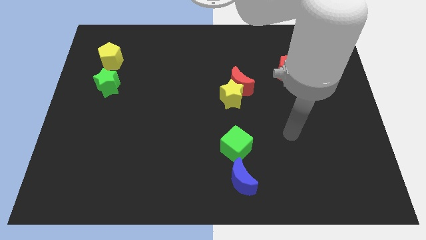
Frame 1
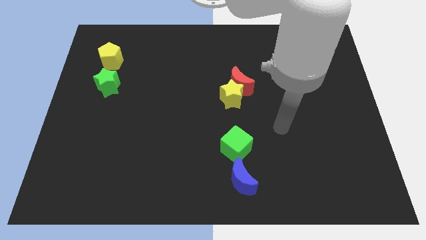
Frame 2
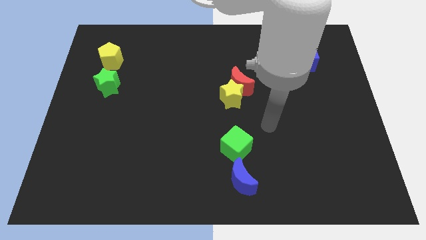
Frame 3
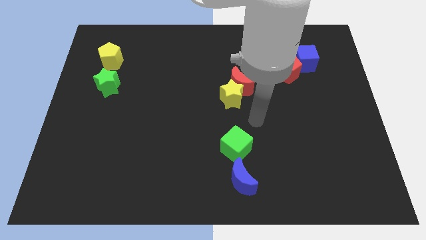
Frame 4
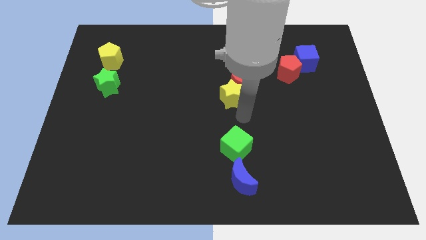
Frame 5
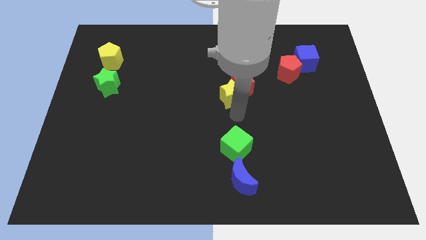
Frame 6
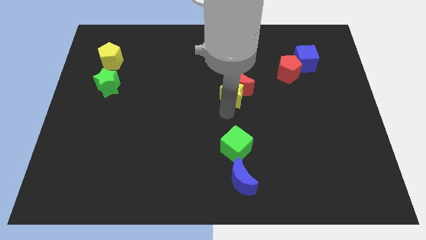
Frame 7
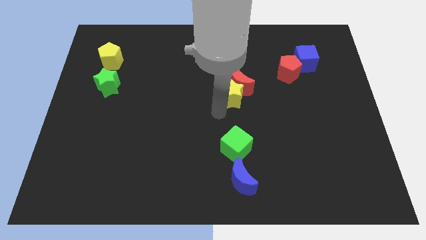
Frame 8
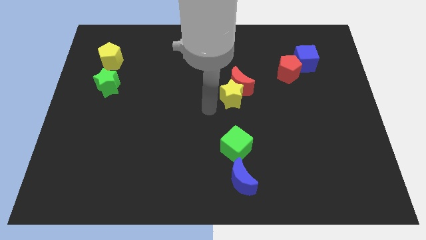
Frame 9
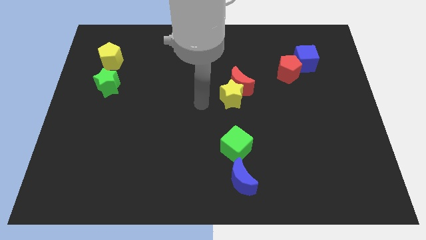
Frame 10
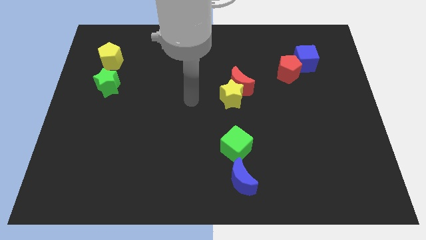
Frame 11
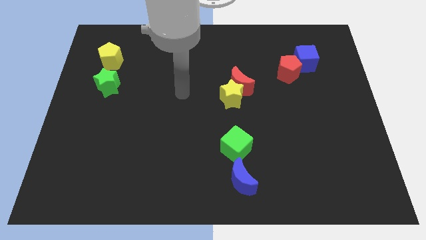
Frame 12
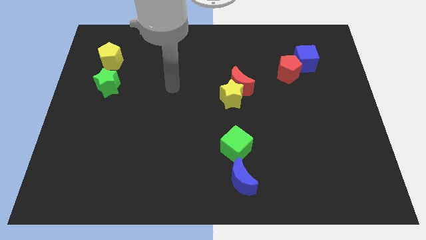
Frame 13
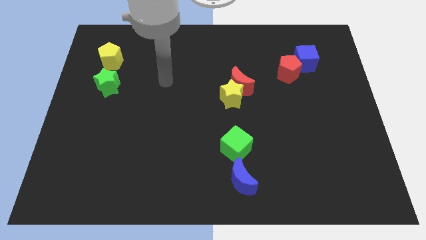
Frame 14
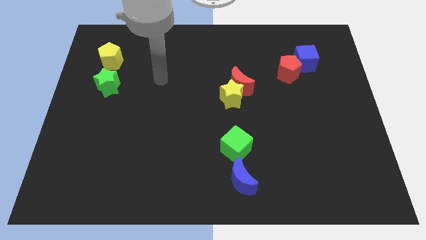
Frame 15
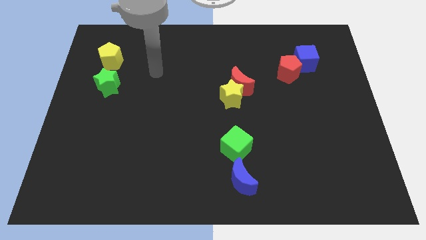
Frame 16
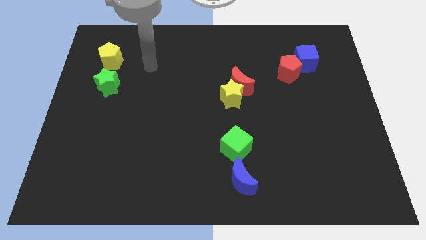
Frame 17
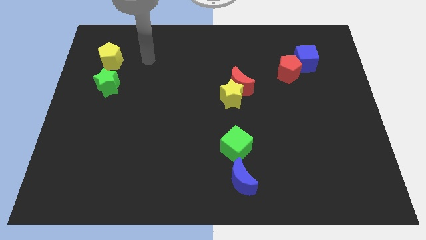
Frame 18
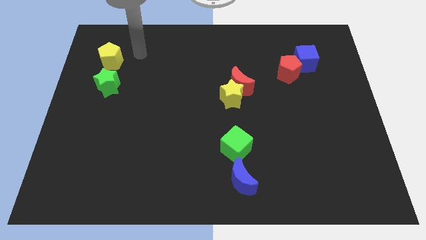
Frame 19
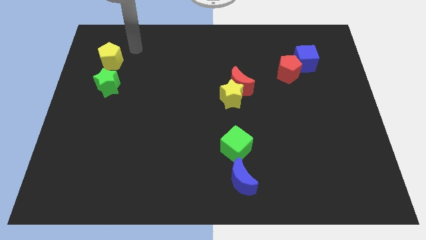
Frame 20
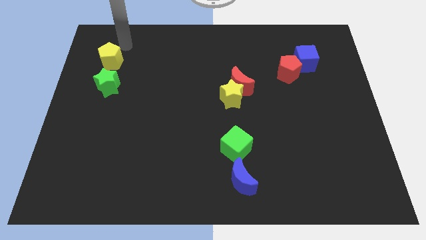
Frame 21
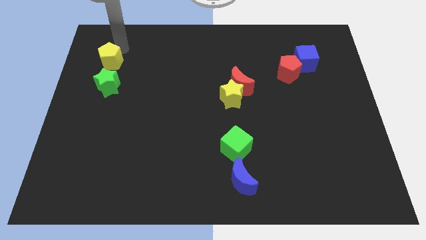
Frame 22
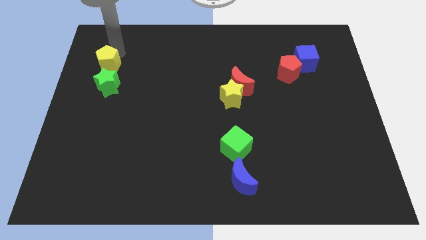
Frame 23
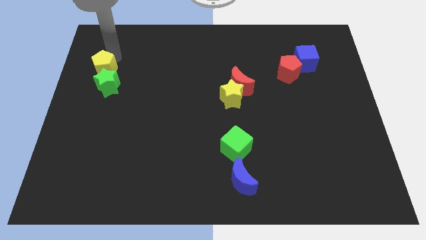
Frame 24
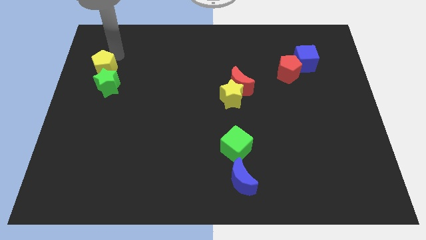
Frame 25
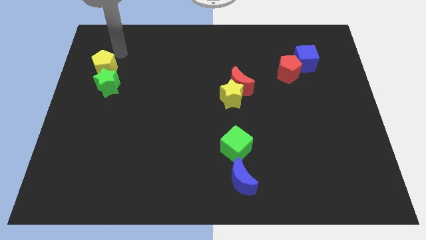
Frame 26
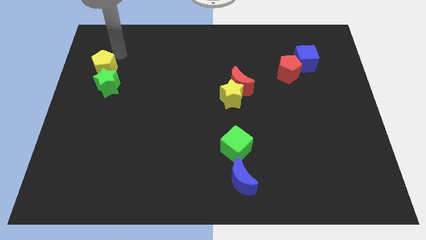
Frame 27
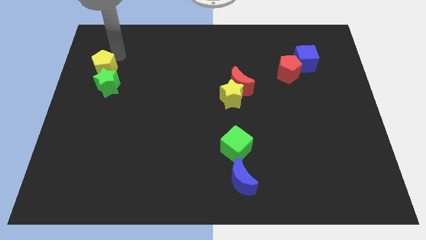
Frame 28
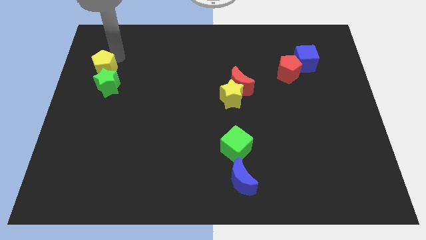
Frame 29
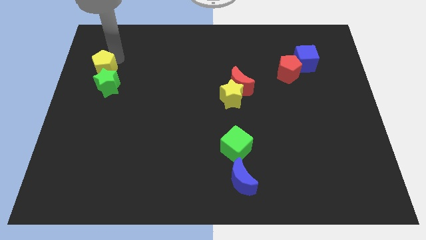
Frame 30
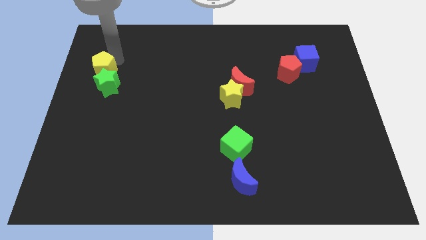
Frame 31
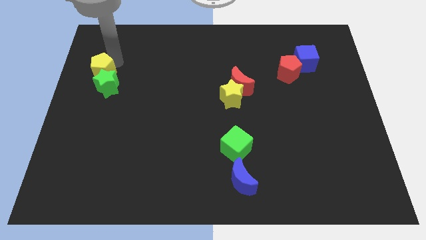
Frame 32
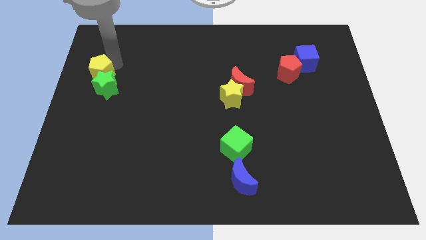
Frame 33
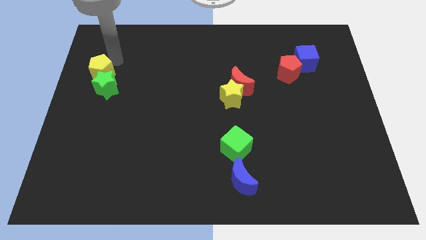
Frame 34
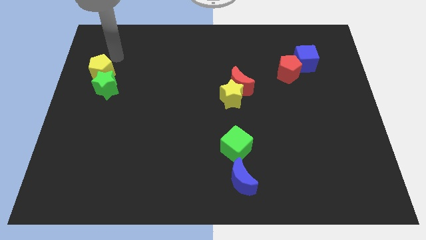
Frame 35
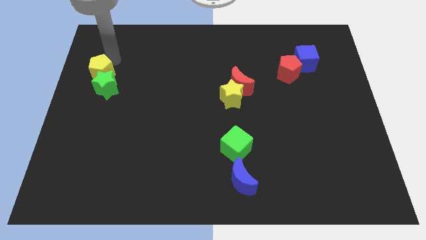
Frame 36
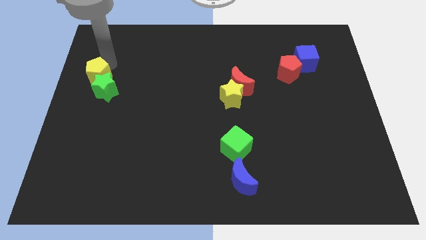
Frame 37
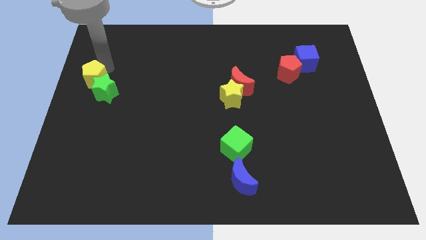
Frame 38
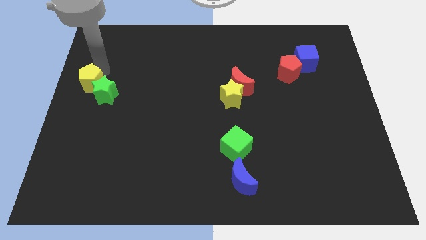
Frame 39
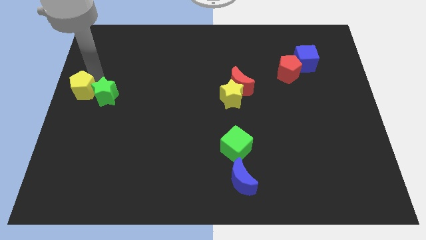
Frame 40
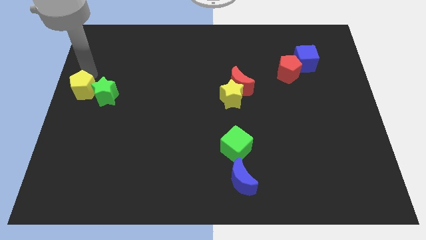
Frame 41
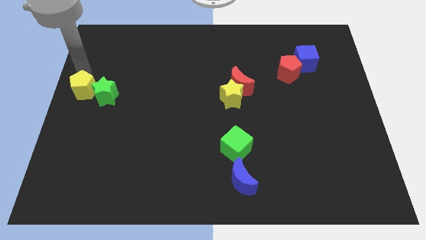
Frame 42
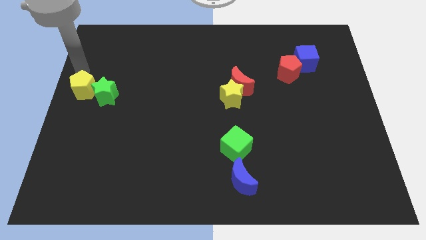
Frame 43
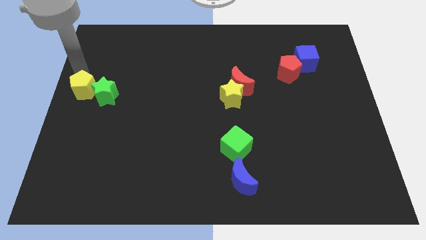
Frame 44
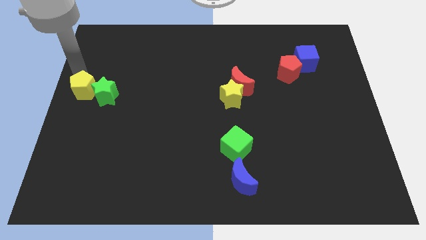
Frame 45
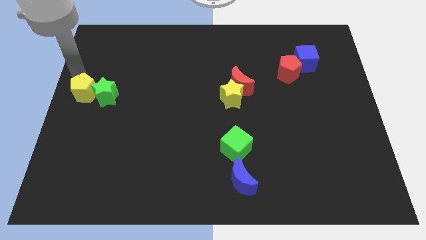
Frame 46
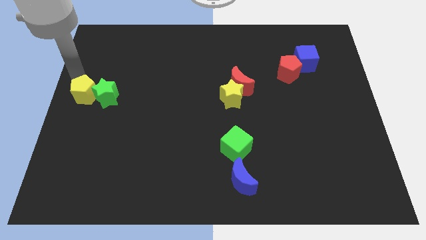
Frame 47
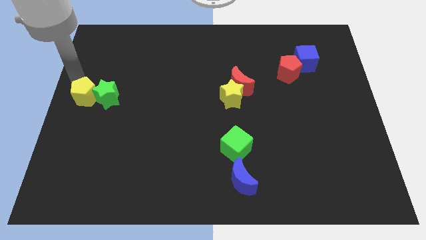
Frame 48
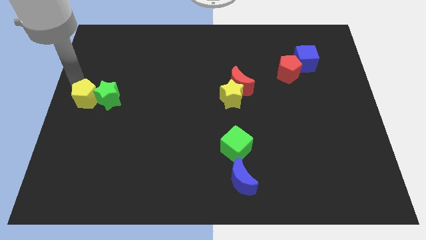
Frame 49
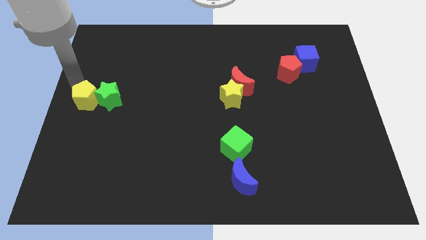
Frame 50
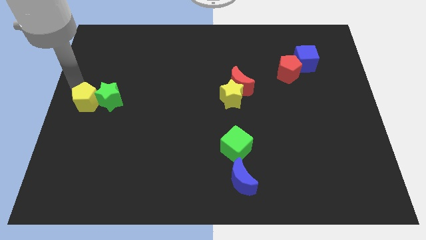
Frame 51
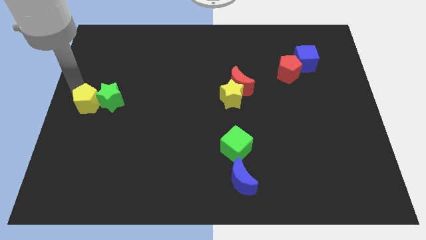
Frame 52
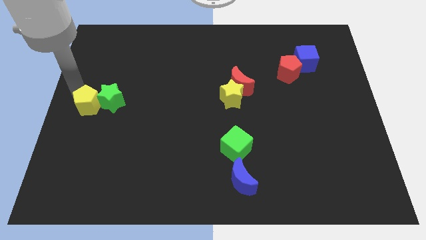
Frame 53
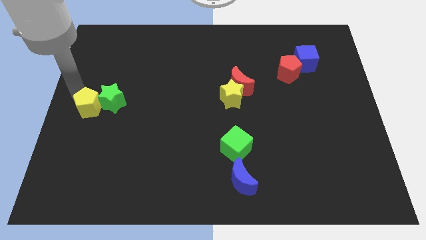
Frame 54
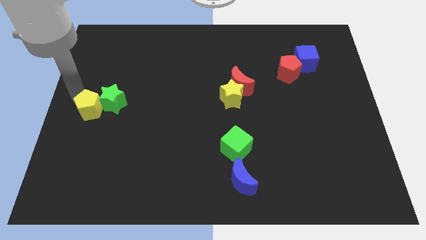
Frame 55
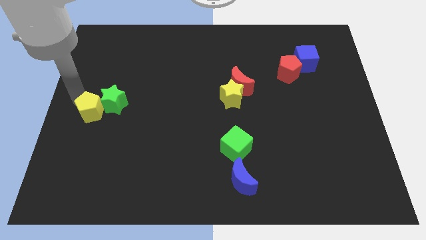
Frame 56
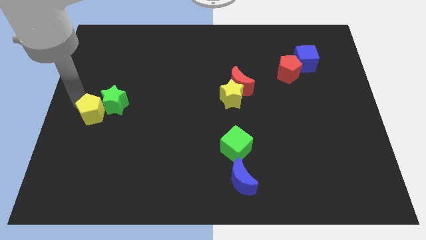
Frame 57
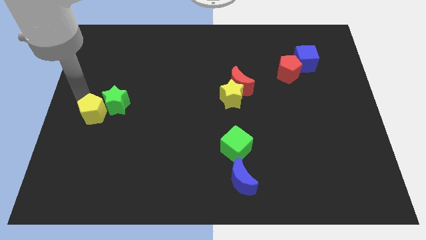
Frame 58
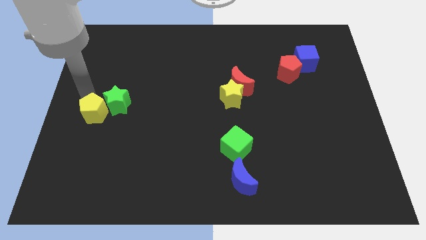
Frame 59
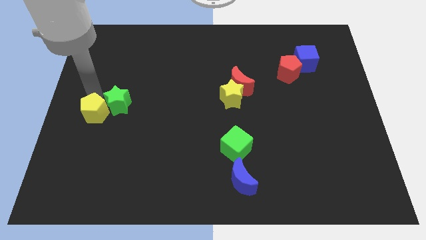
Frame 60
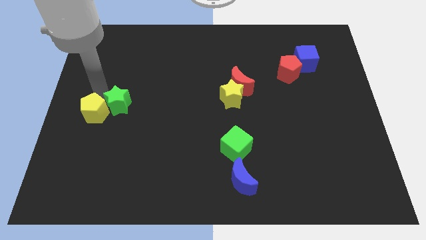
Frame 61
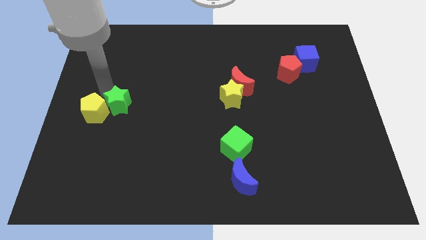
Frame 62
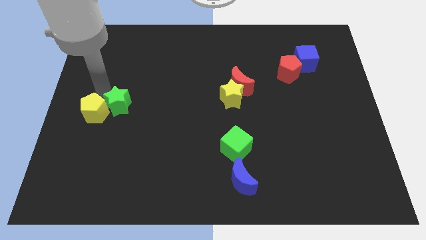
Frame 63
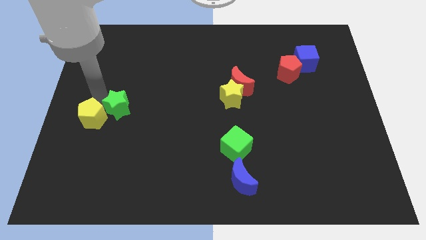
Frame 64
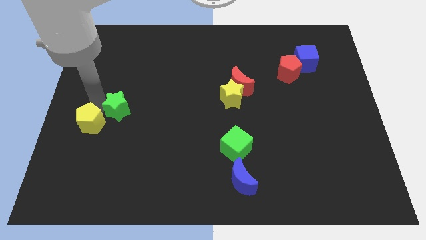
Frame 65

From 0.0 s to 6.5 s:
move the yellow pentagon downwards

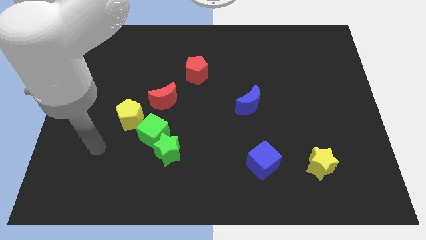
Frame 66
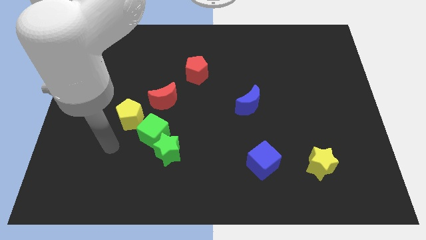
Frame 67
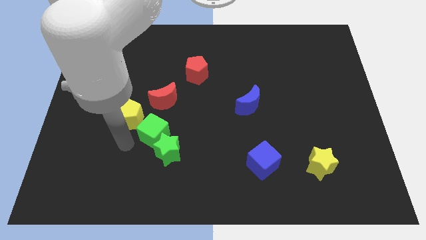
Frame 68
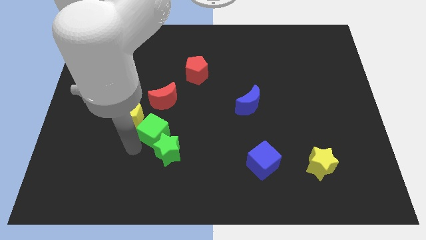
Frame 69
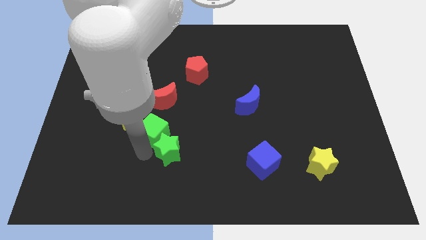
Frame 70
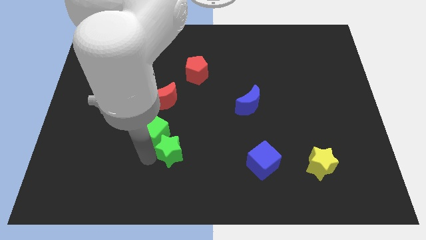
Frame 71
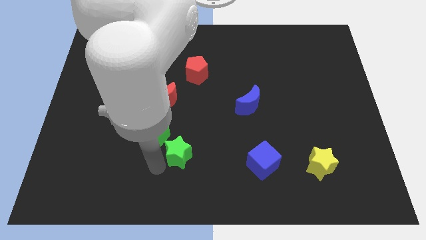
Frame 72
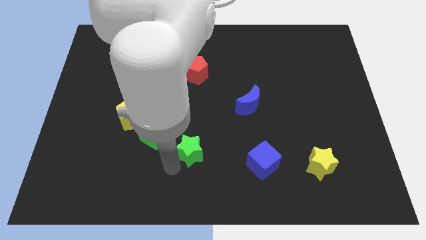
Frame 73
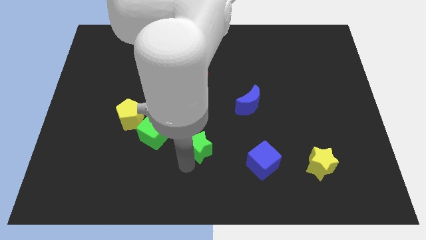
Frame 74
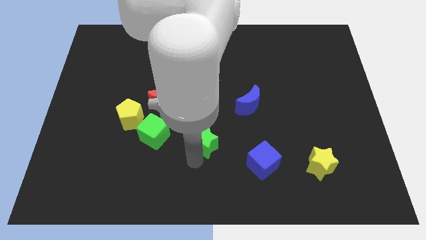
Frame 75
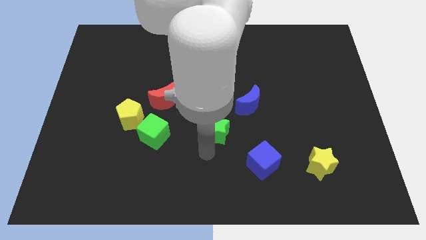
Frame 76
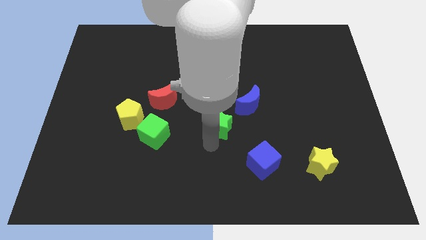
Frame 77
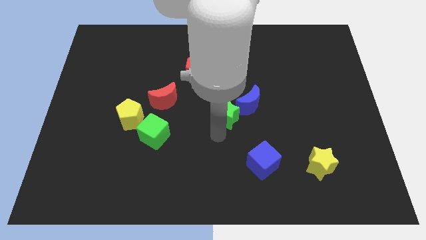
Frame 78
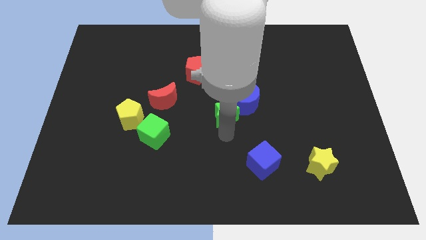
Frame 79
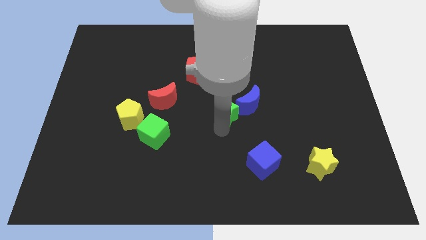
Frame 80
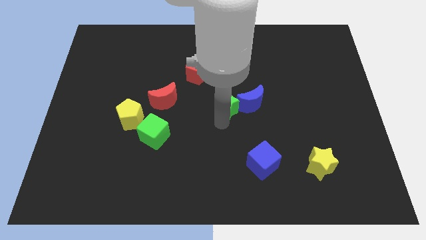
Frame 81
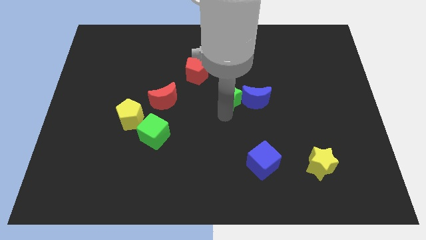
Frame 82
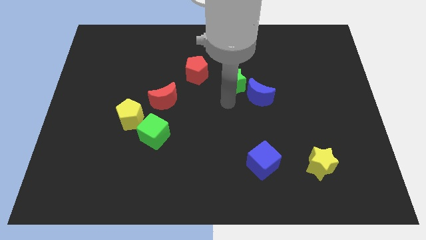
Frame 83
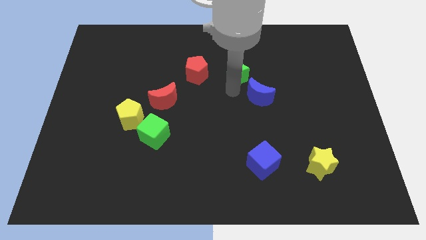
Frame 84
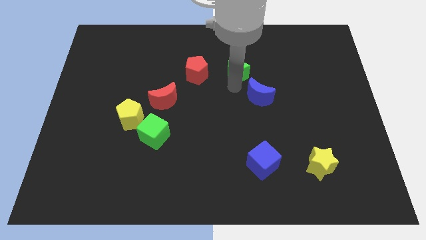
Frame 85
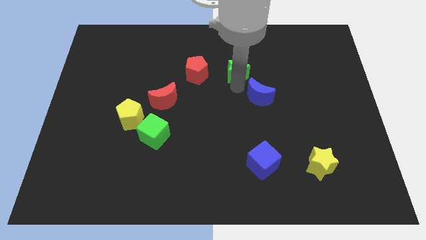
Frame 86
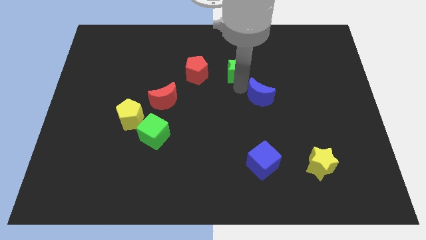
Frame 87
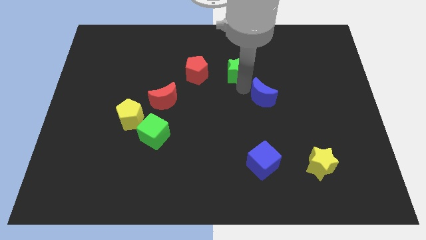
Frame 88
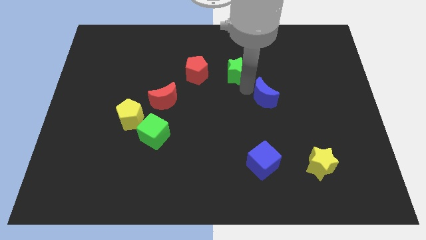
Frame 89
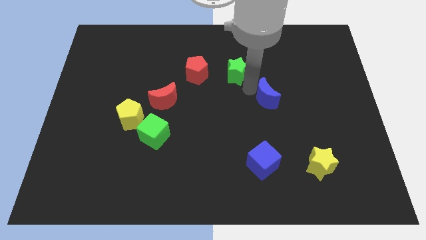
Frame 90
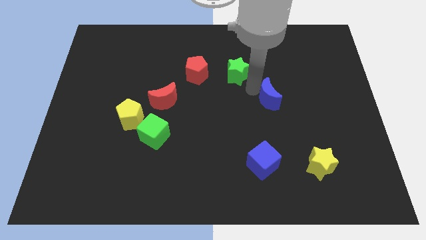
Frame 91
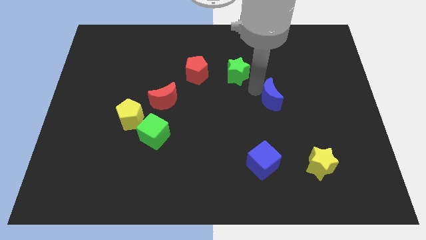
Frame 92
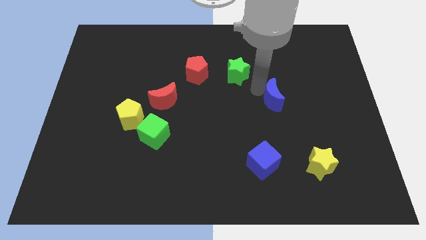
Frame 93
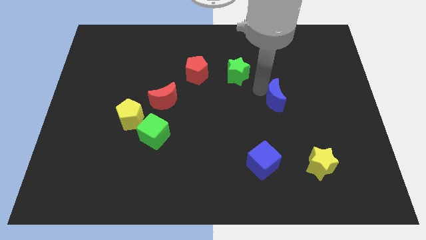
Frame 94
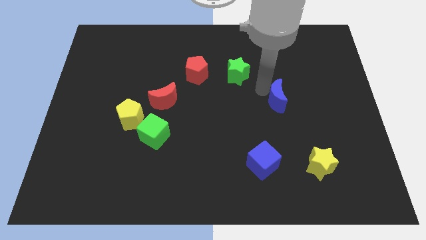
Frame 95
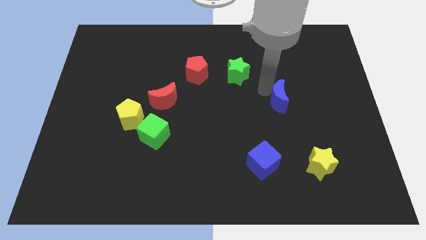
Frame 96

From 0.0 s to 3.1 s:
slide the blue moon to the right slightly
